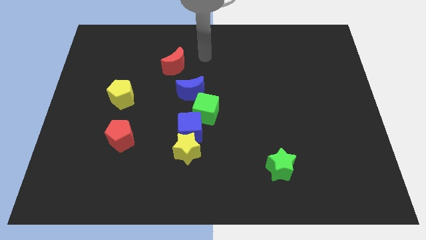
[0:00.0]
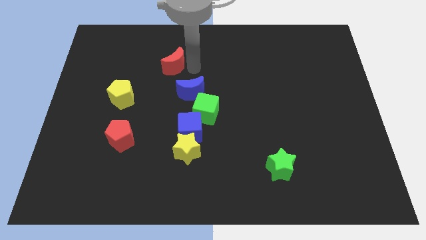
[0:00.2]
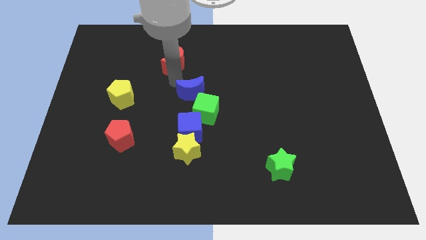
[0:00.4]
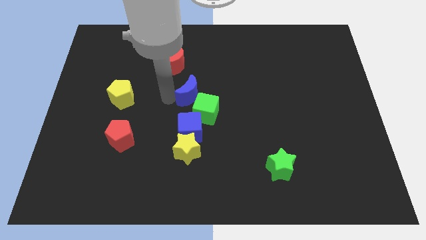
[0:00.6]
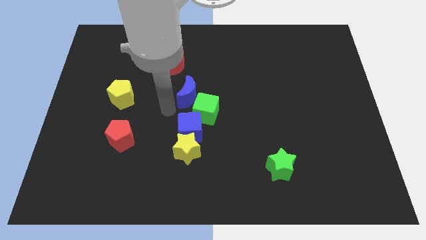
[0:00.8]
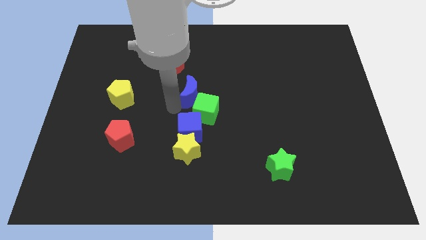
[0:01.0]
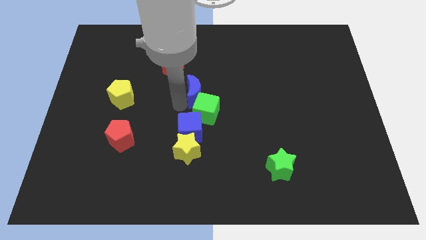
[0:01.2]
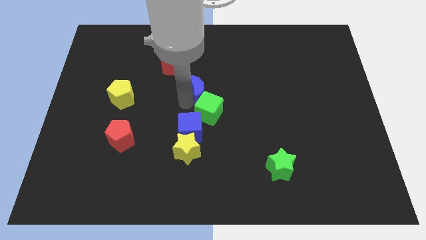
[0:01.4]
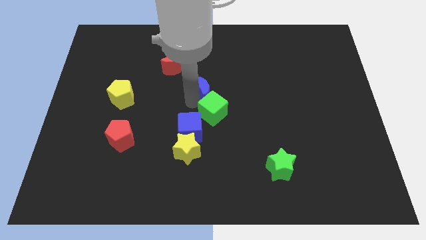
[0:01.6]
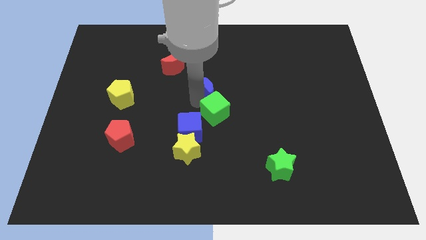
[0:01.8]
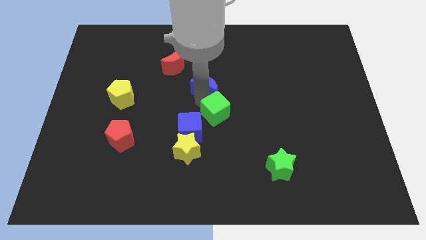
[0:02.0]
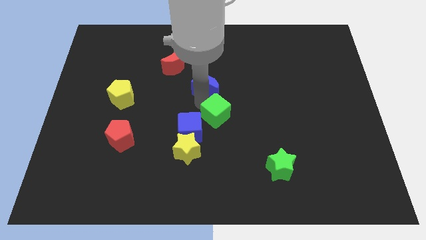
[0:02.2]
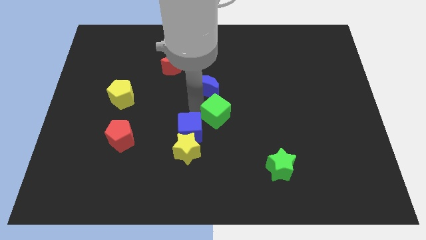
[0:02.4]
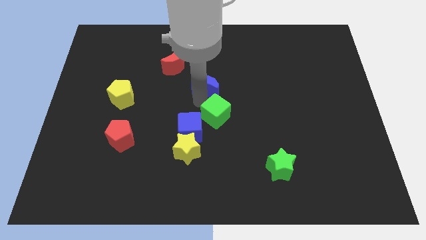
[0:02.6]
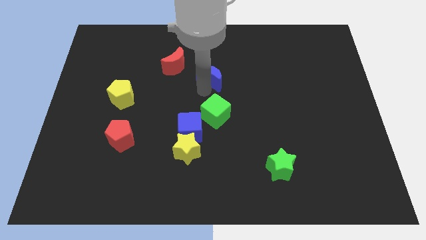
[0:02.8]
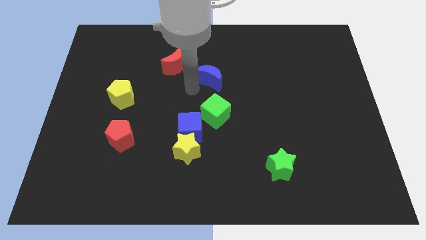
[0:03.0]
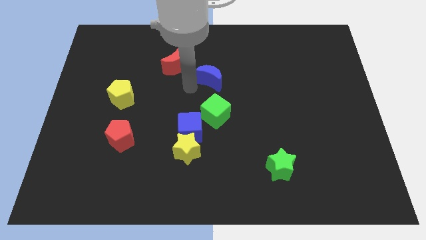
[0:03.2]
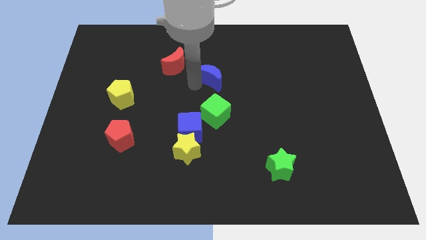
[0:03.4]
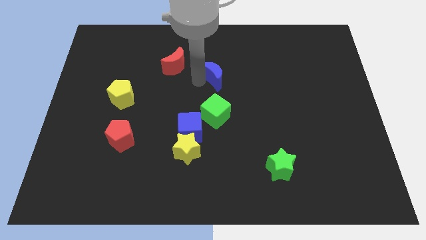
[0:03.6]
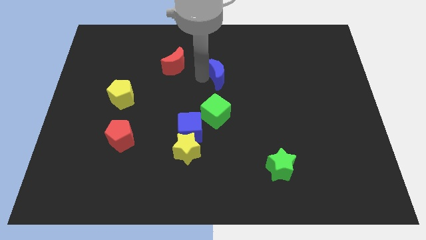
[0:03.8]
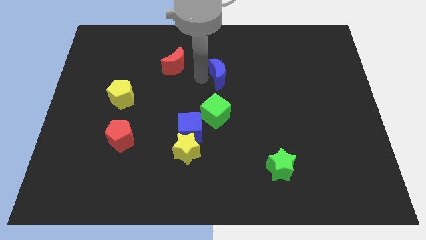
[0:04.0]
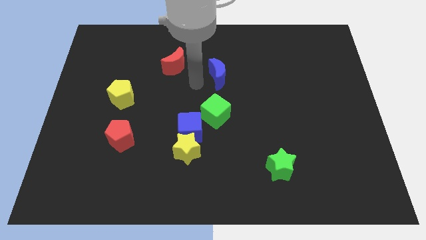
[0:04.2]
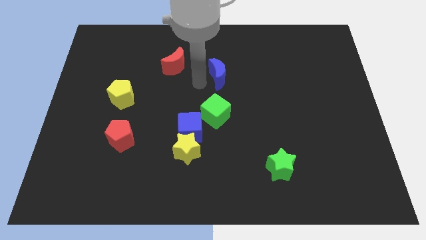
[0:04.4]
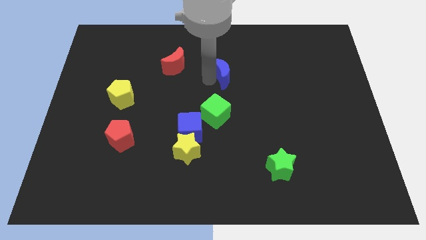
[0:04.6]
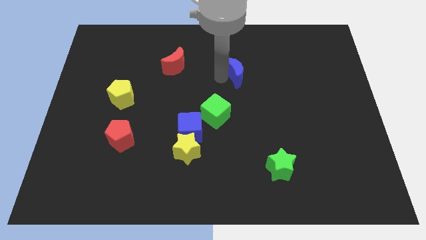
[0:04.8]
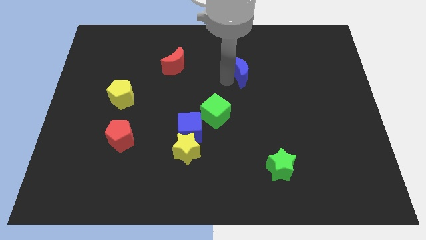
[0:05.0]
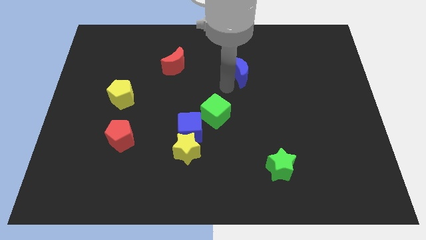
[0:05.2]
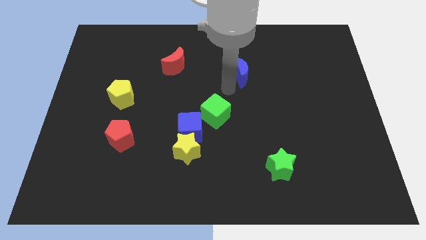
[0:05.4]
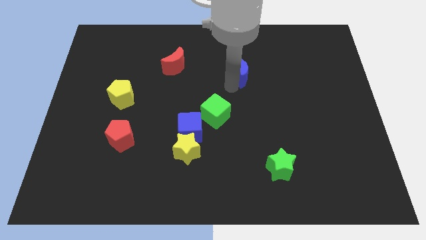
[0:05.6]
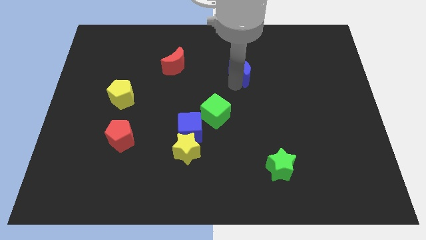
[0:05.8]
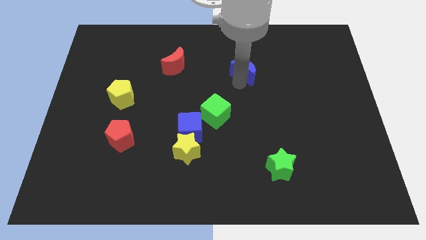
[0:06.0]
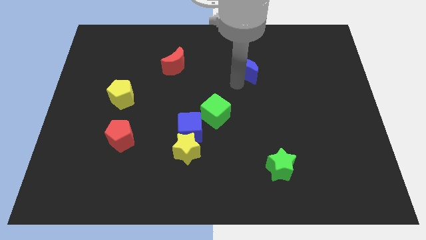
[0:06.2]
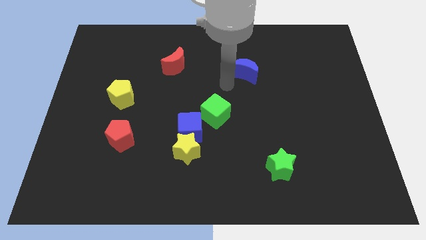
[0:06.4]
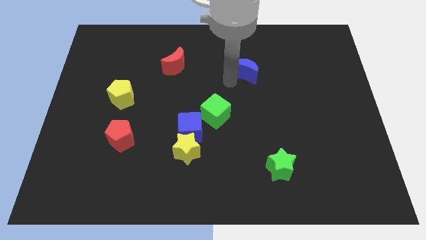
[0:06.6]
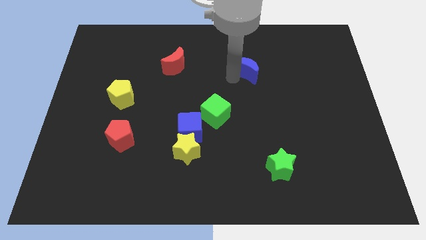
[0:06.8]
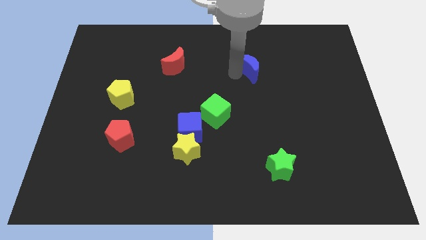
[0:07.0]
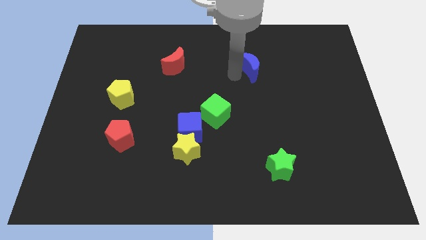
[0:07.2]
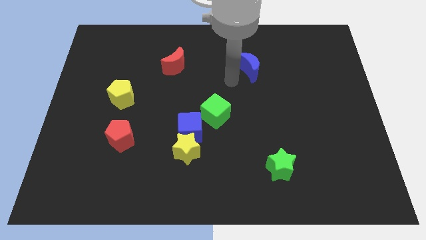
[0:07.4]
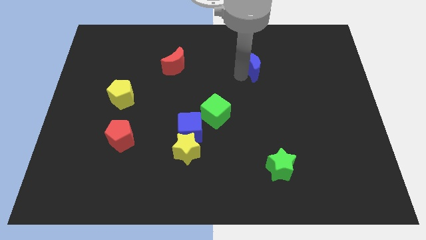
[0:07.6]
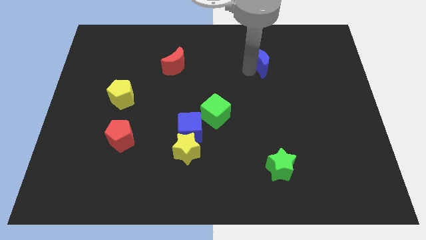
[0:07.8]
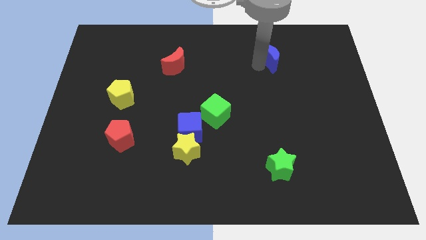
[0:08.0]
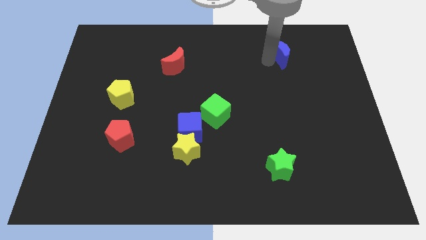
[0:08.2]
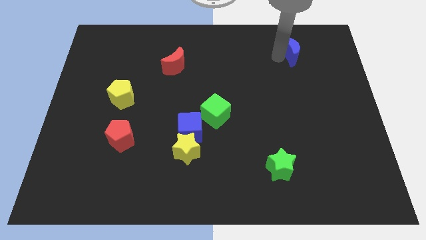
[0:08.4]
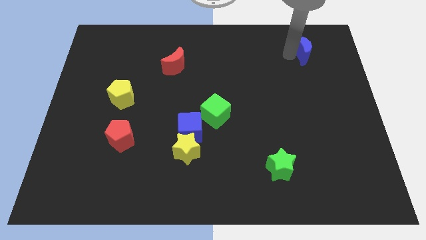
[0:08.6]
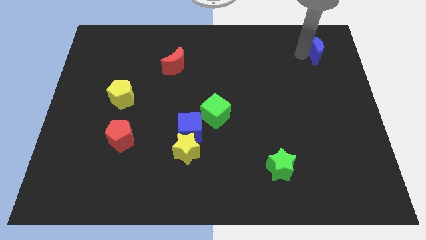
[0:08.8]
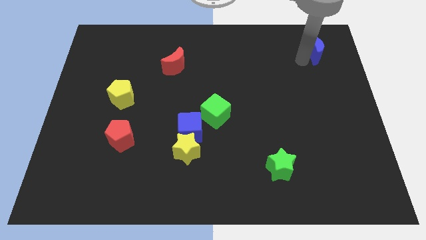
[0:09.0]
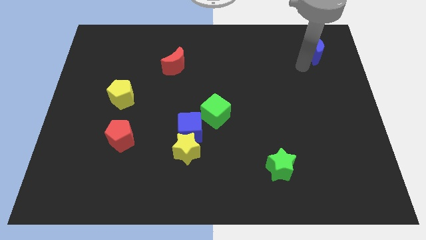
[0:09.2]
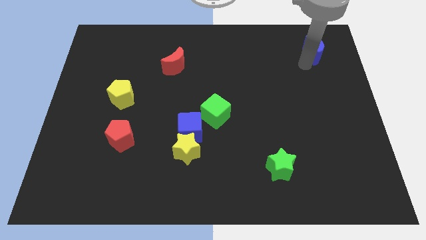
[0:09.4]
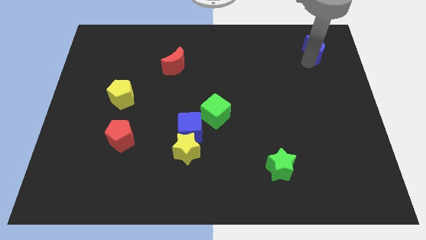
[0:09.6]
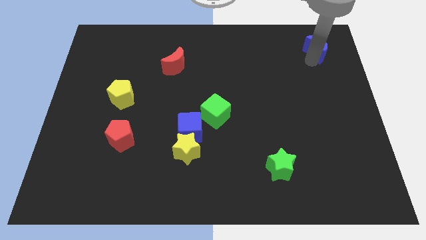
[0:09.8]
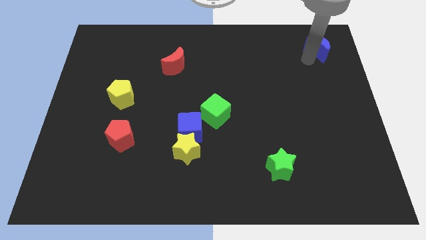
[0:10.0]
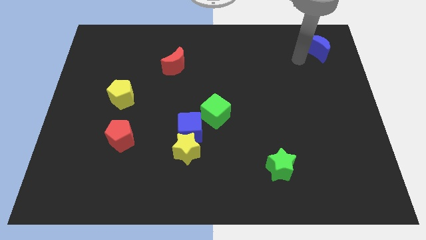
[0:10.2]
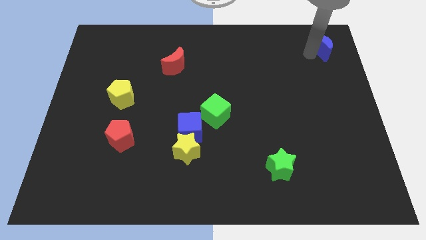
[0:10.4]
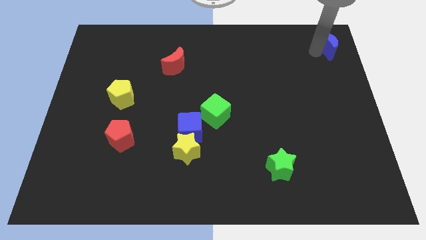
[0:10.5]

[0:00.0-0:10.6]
move the blue moon to the top right

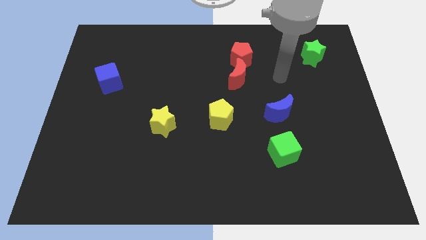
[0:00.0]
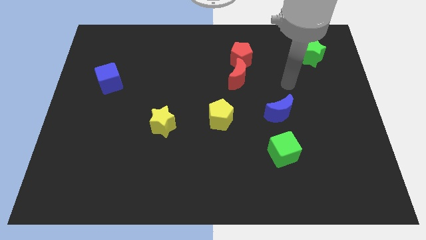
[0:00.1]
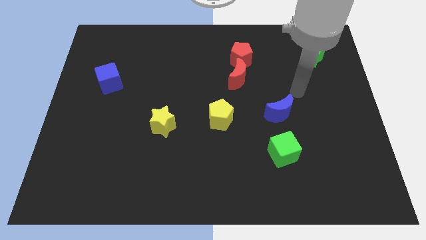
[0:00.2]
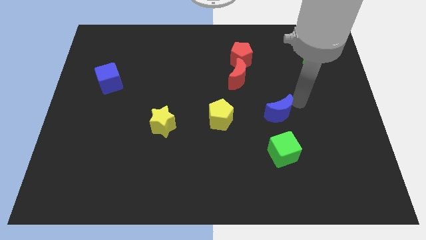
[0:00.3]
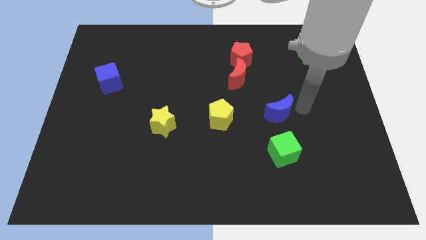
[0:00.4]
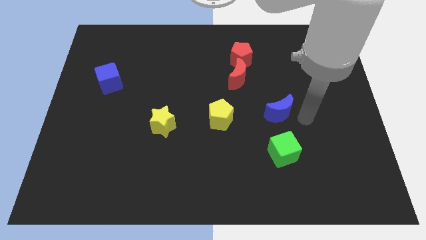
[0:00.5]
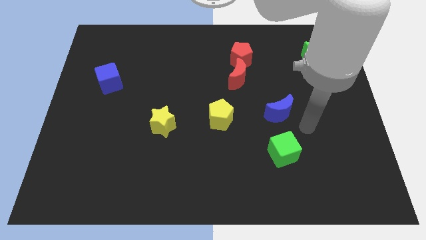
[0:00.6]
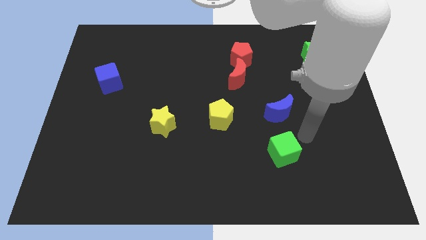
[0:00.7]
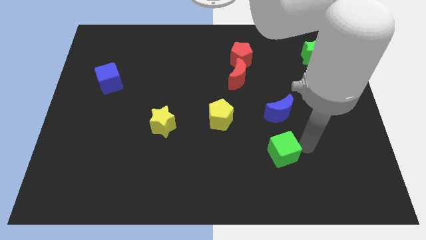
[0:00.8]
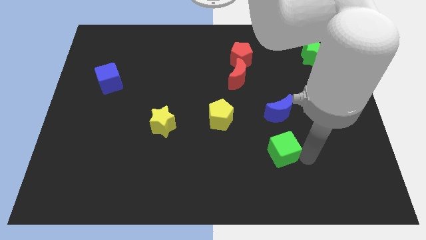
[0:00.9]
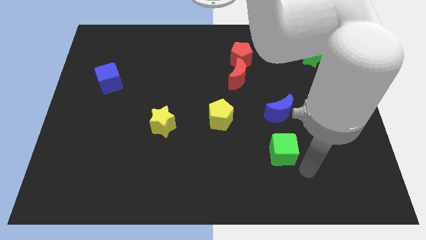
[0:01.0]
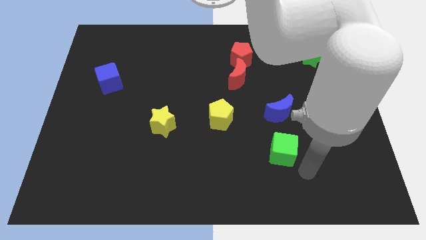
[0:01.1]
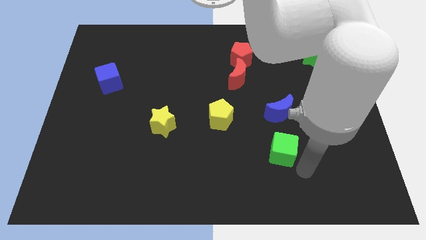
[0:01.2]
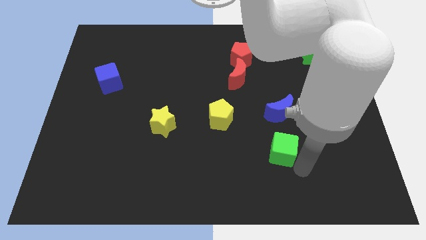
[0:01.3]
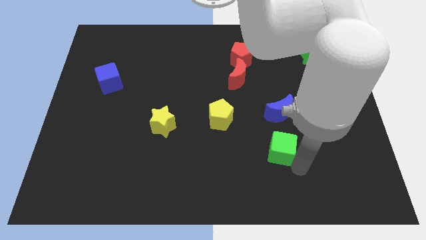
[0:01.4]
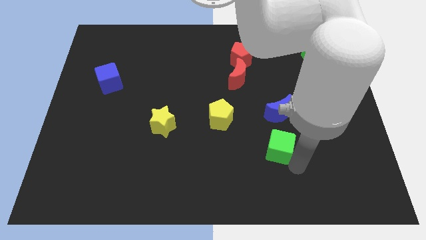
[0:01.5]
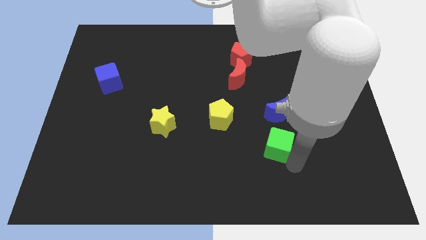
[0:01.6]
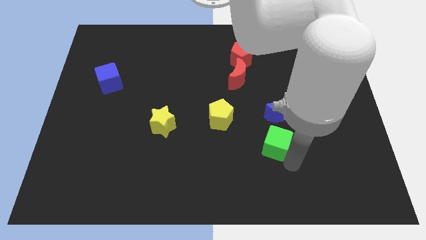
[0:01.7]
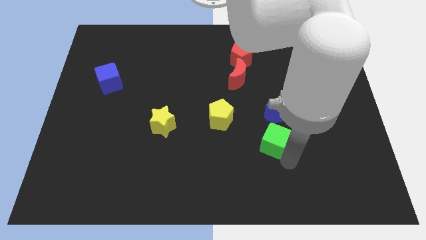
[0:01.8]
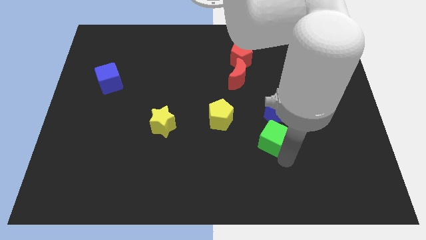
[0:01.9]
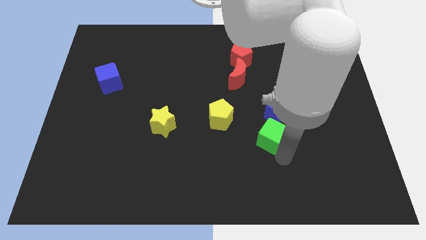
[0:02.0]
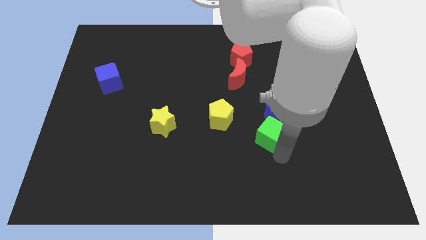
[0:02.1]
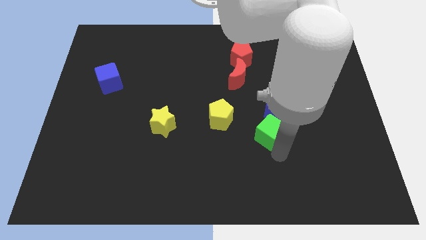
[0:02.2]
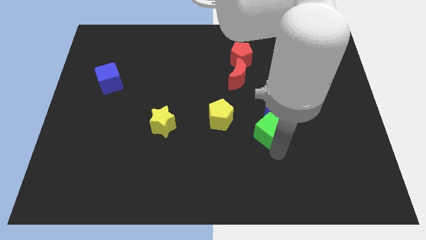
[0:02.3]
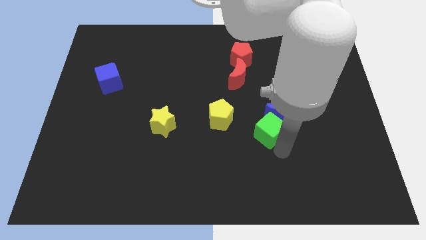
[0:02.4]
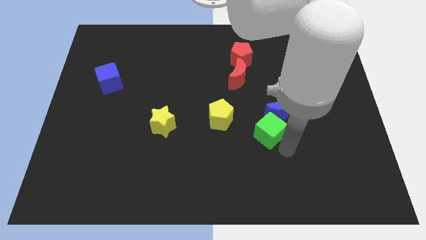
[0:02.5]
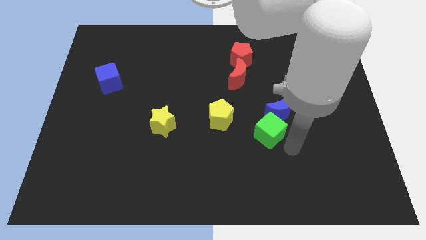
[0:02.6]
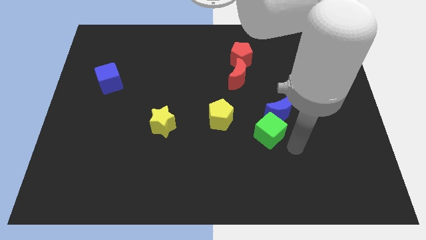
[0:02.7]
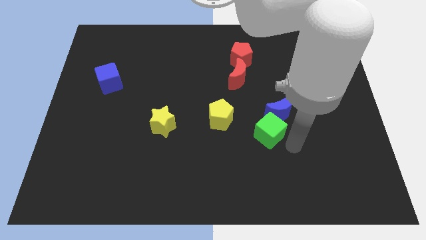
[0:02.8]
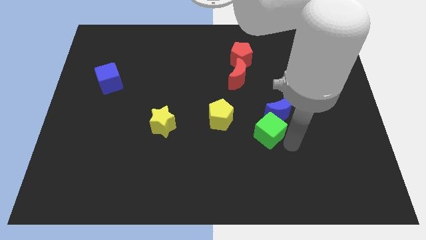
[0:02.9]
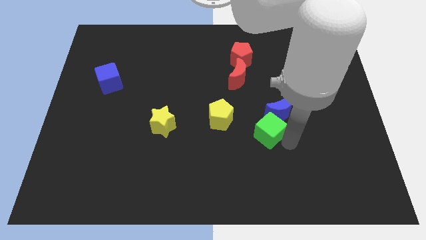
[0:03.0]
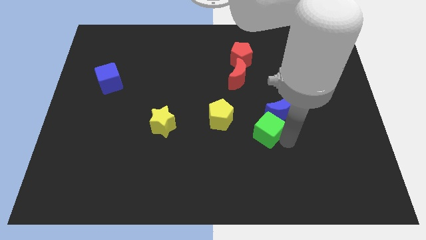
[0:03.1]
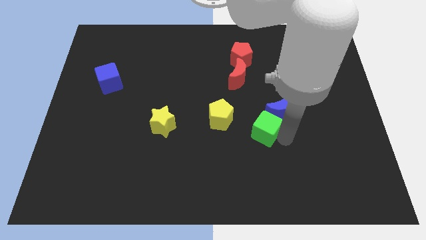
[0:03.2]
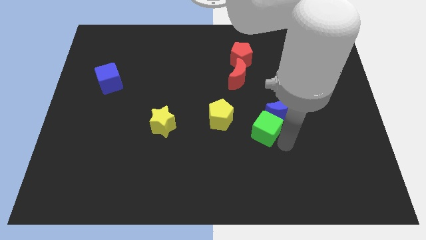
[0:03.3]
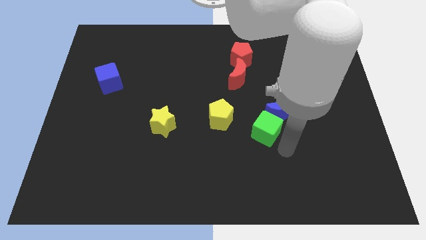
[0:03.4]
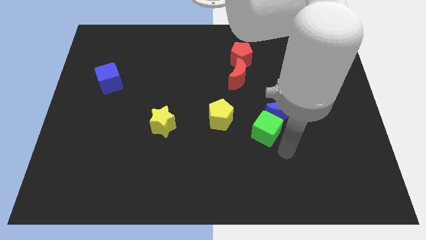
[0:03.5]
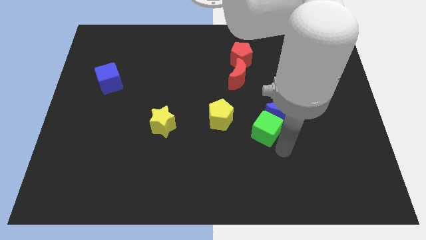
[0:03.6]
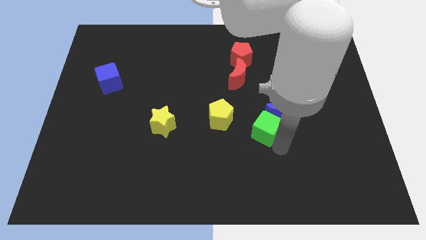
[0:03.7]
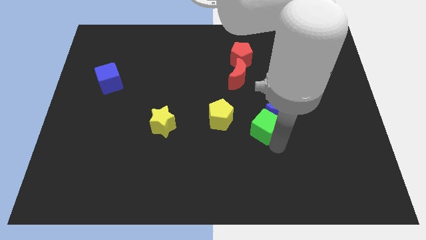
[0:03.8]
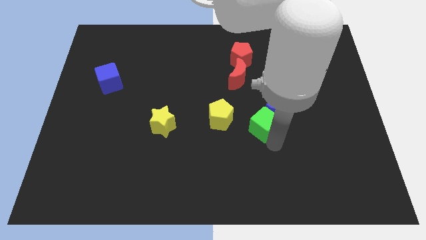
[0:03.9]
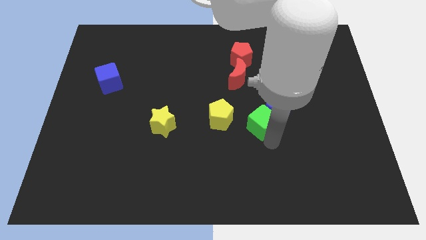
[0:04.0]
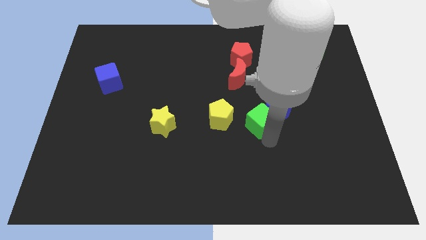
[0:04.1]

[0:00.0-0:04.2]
slide the green cube to the middle
